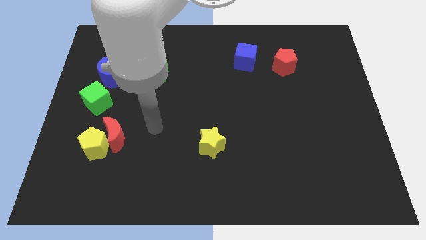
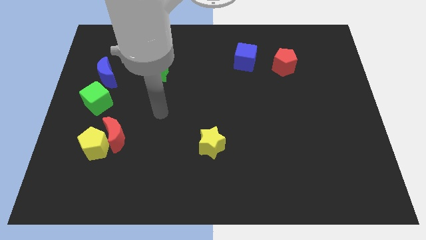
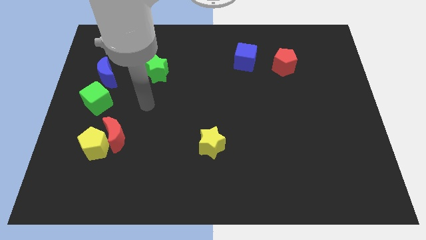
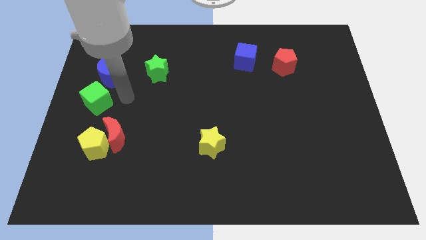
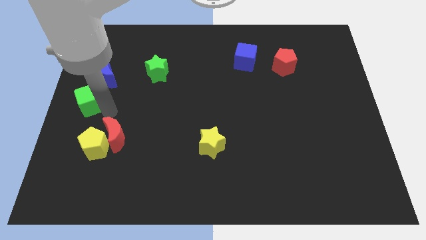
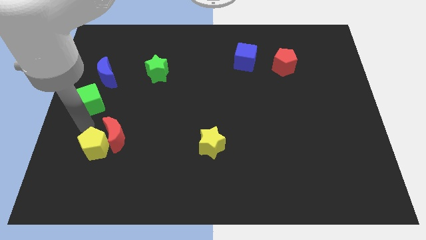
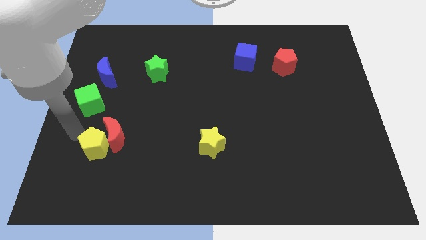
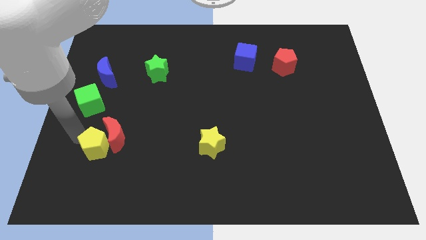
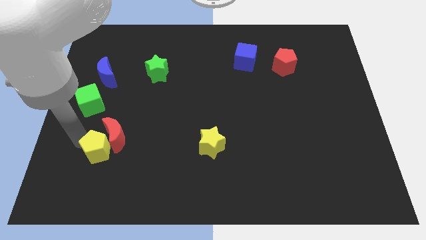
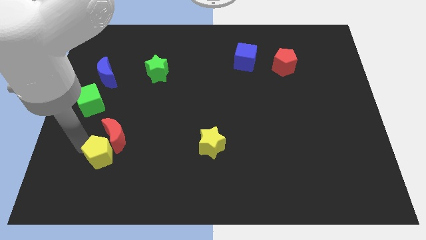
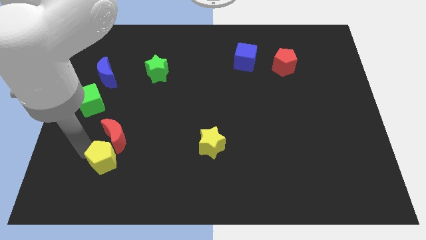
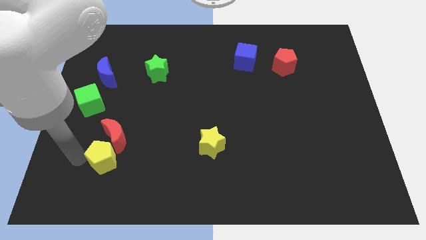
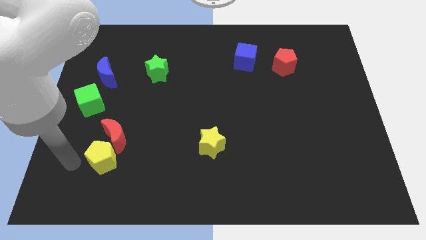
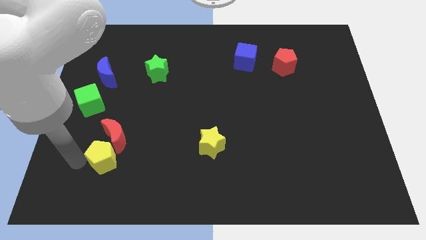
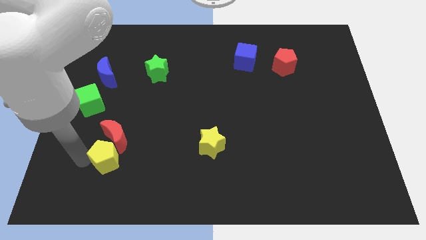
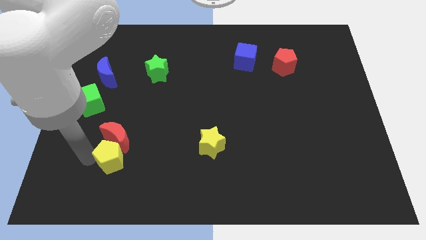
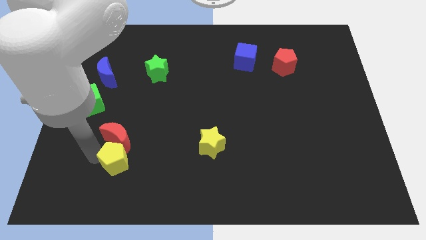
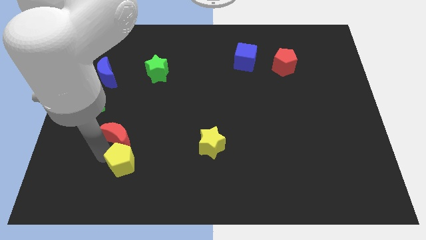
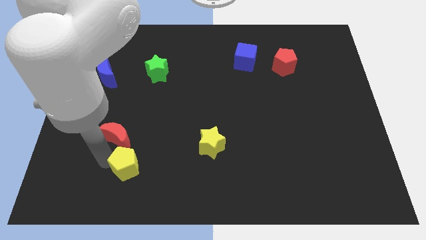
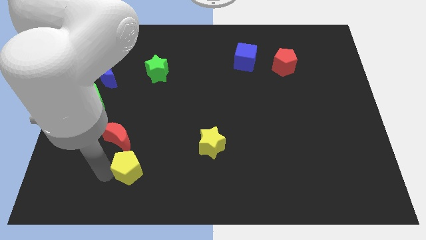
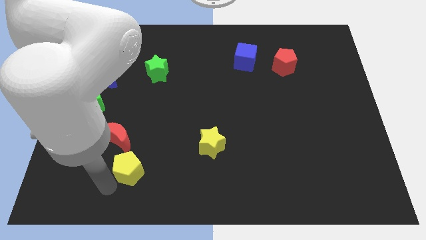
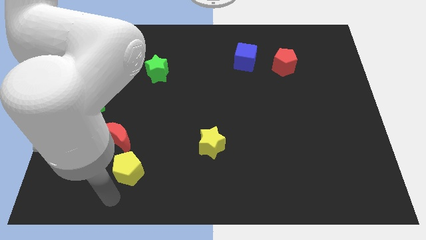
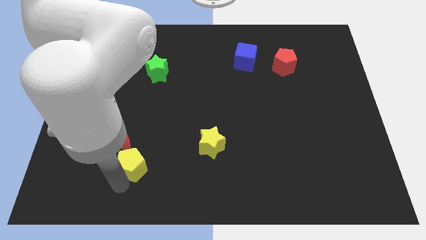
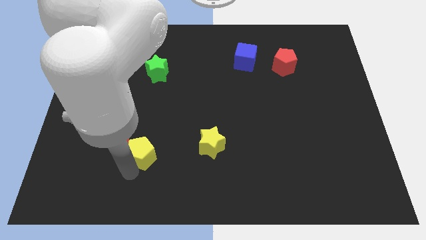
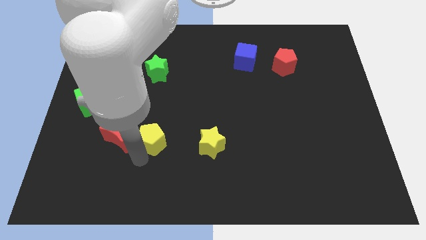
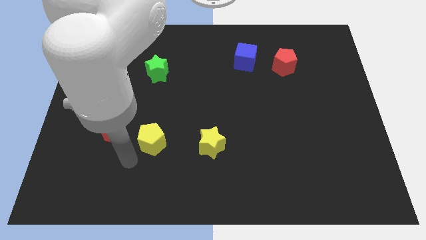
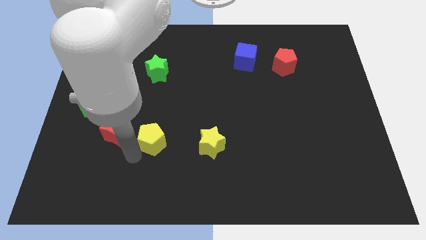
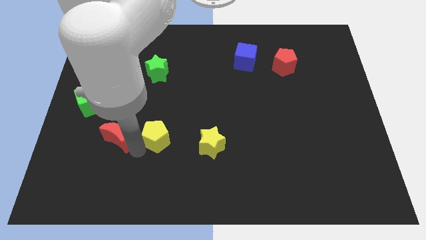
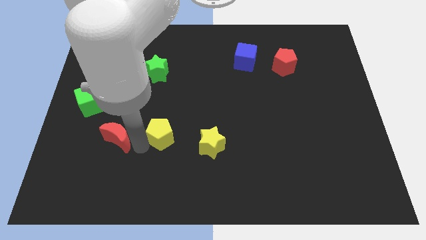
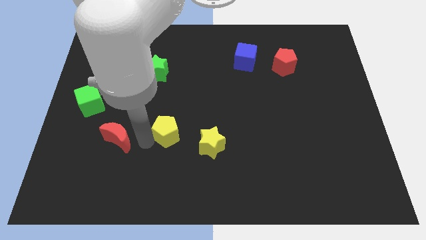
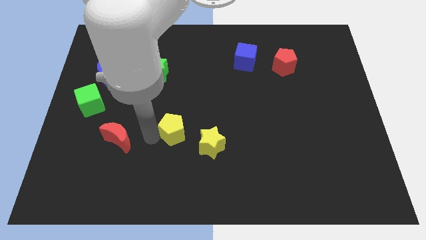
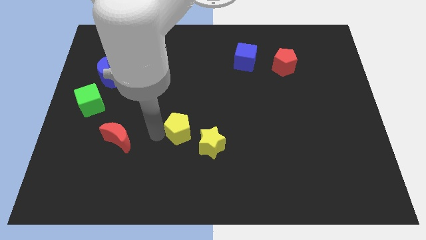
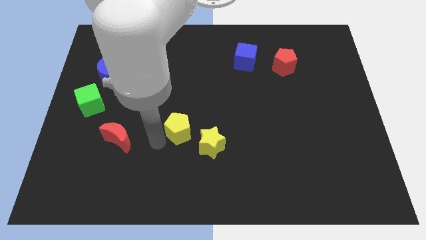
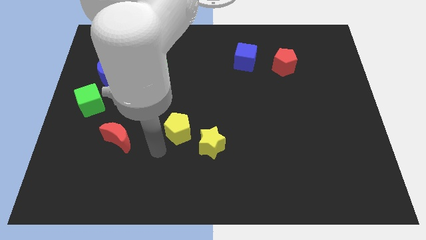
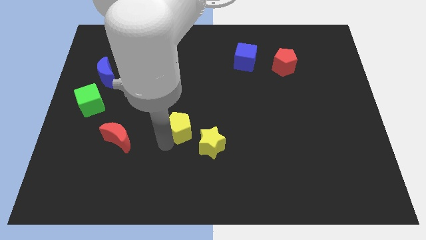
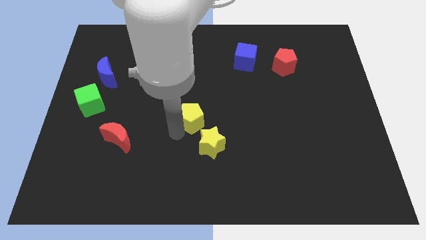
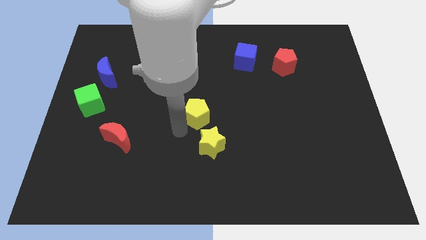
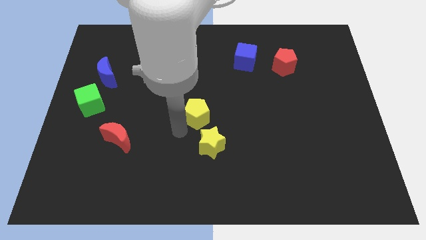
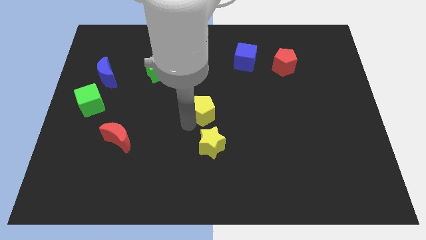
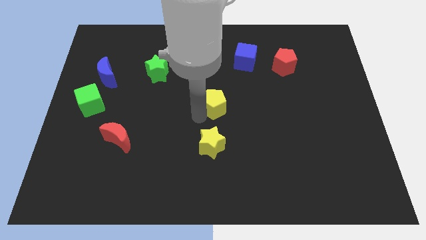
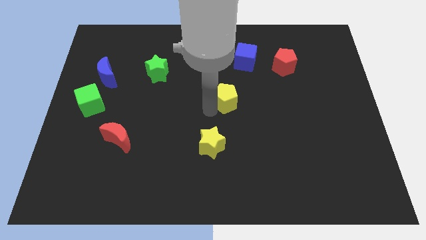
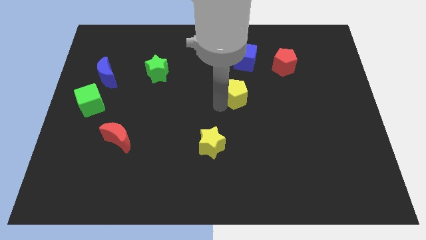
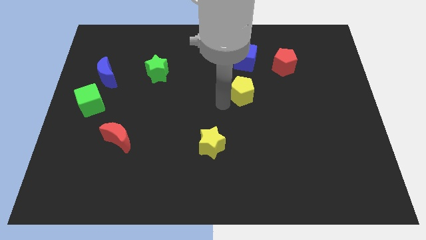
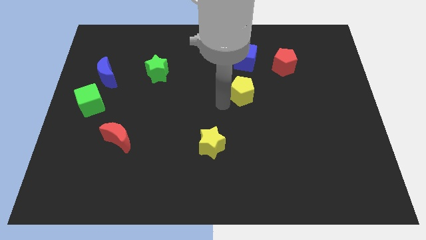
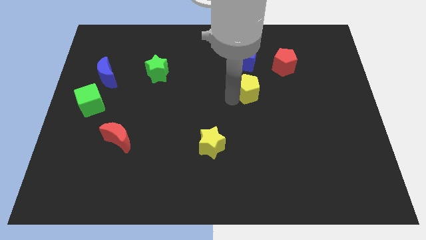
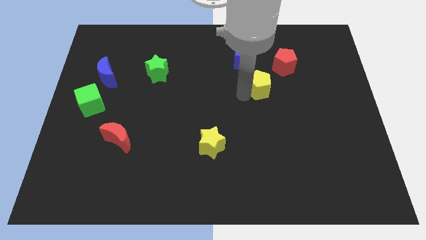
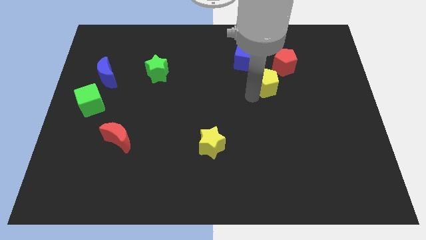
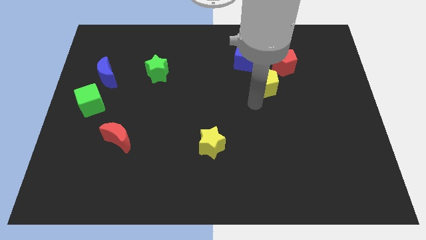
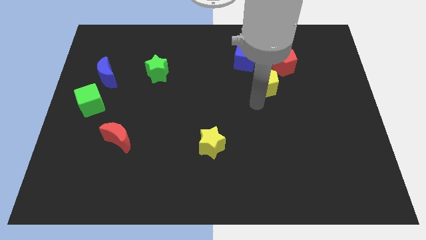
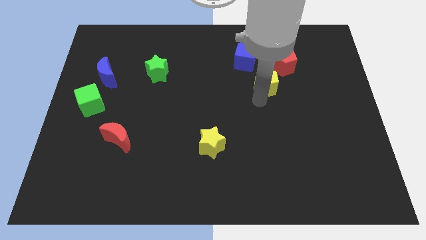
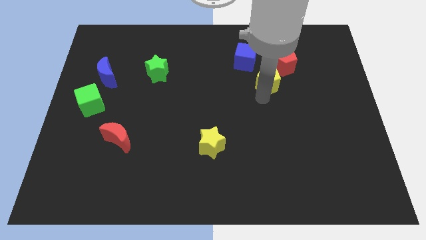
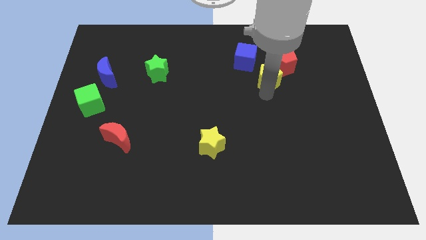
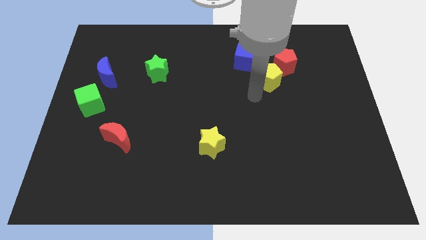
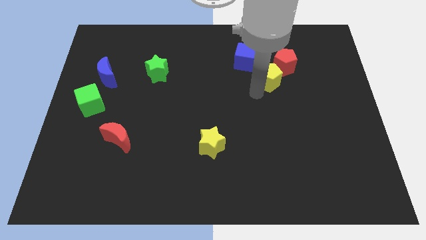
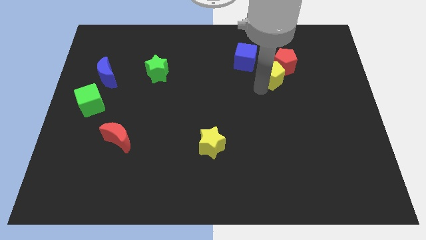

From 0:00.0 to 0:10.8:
move the yellow pentagon to the red pentagon

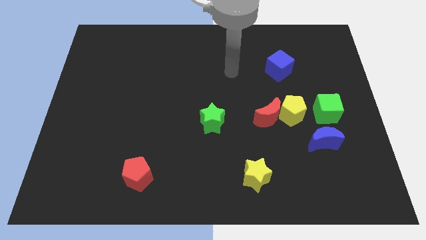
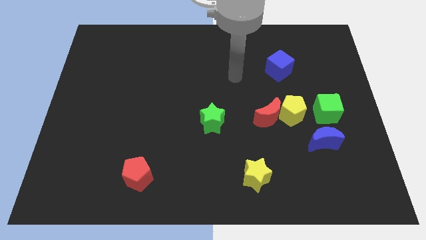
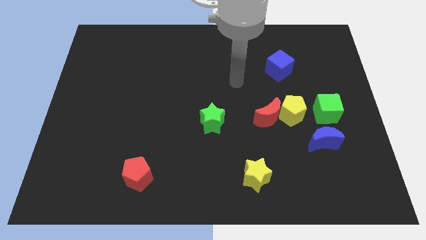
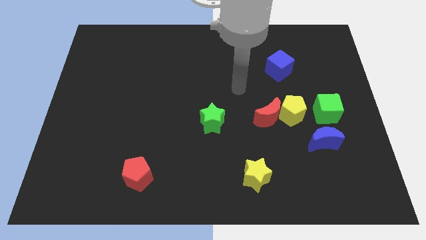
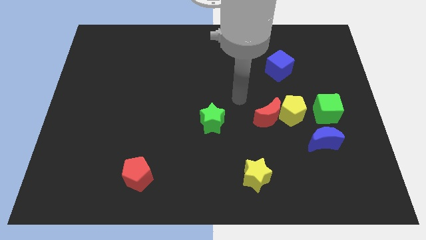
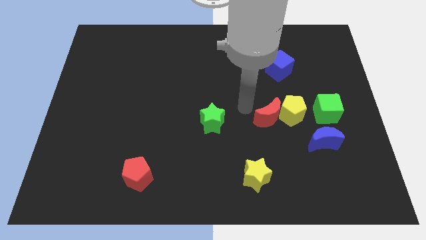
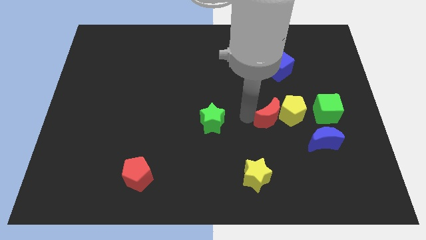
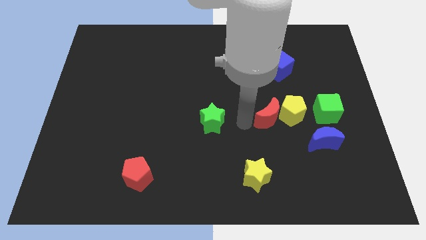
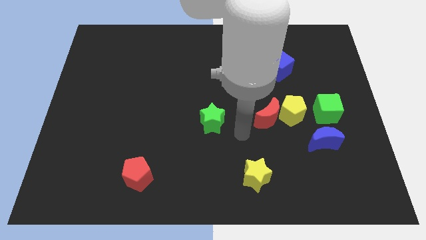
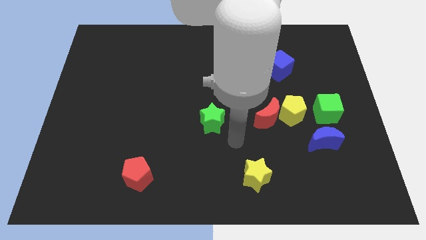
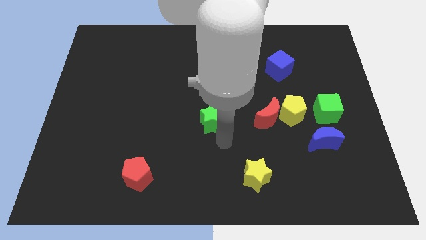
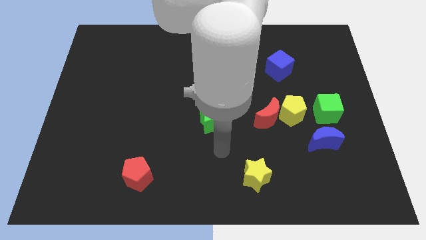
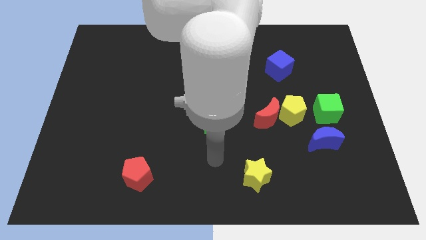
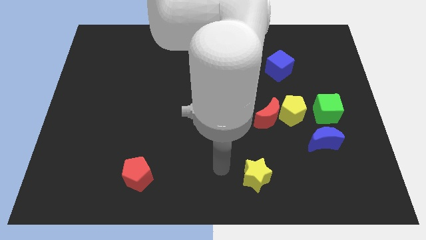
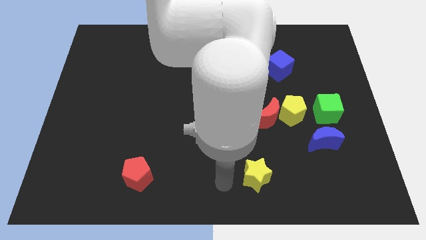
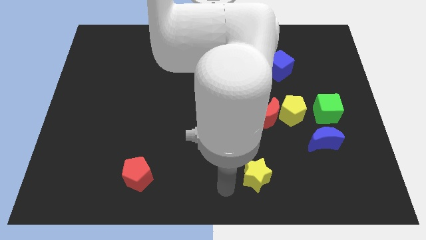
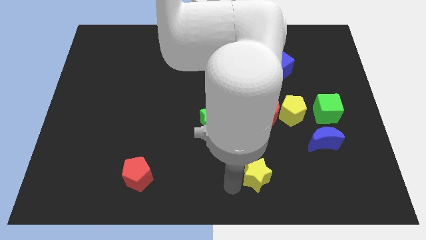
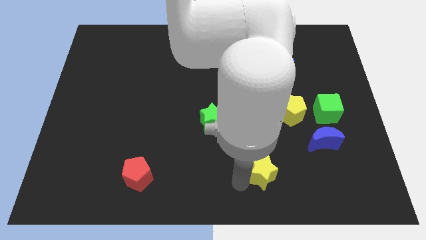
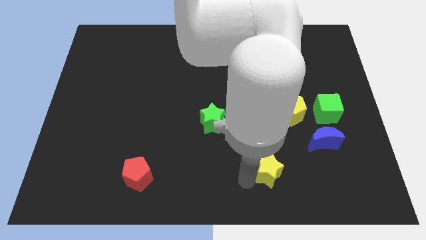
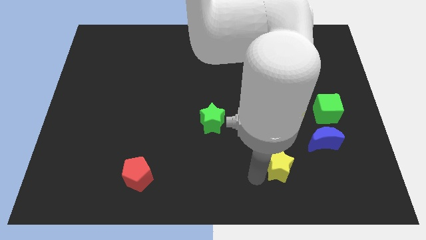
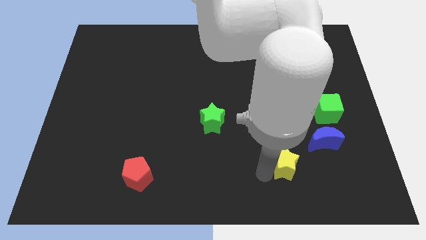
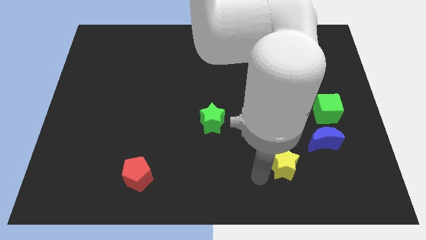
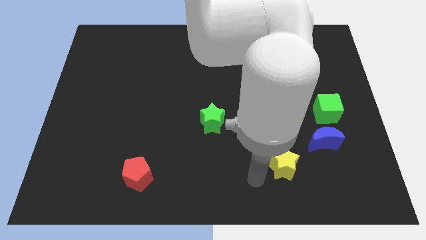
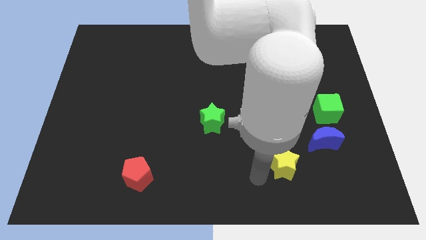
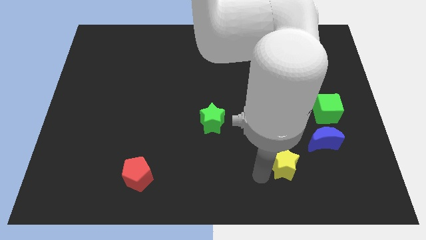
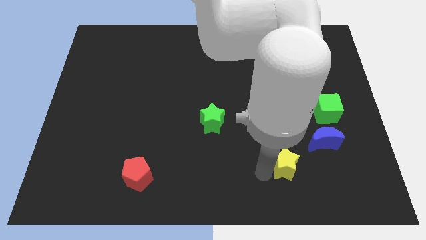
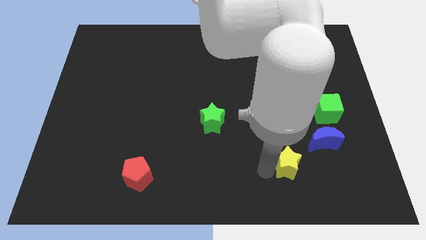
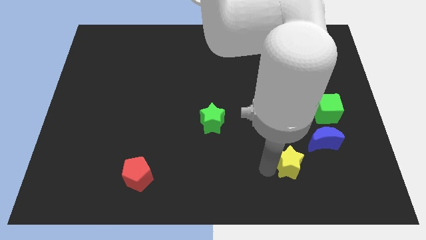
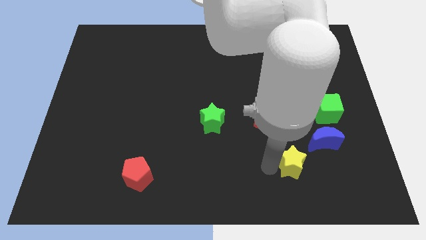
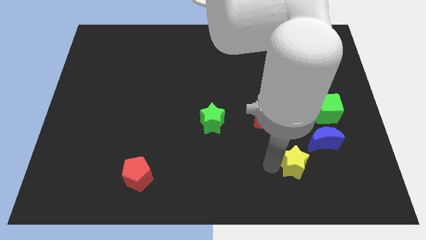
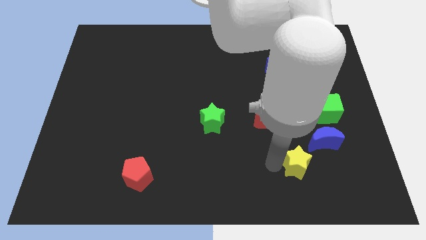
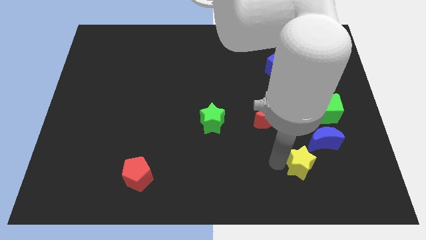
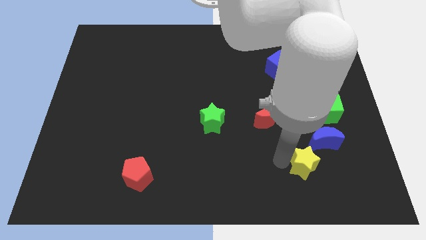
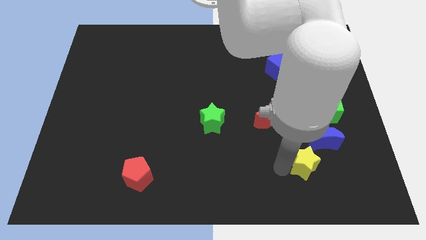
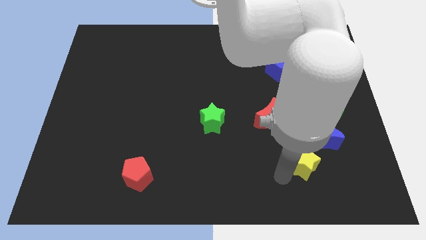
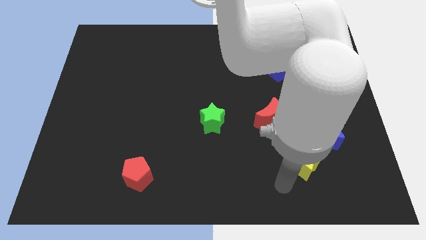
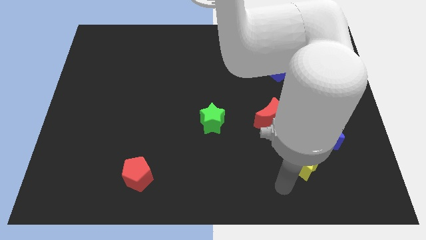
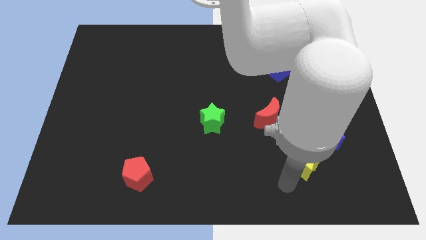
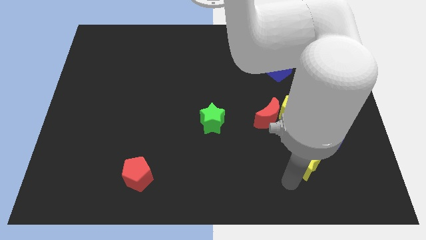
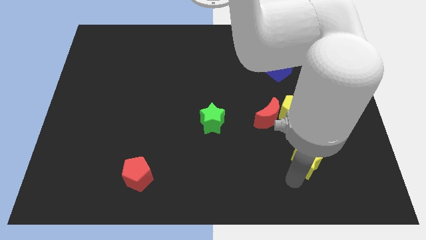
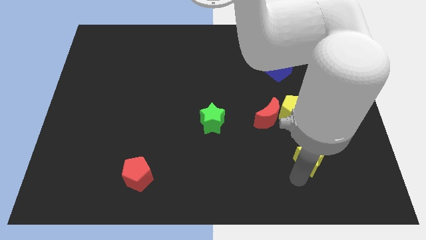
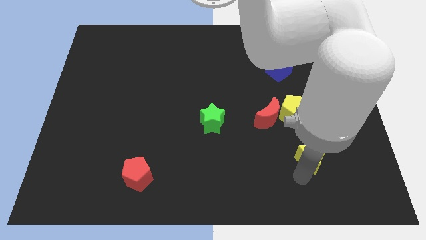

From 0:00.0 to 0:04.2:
push the yellow star to the blue moon
